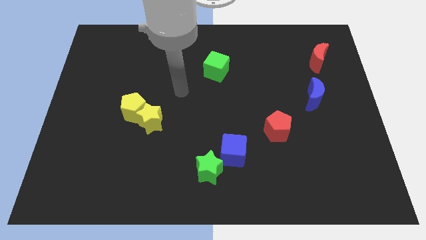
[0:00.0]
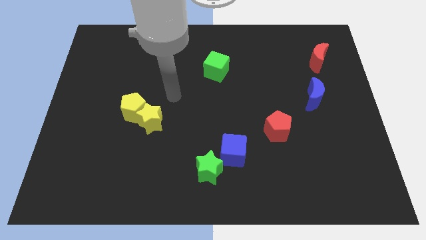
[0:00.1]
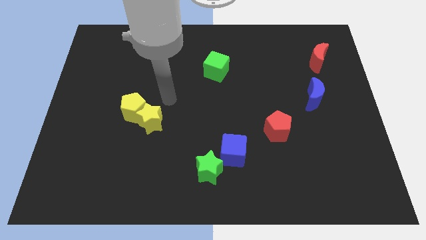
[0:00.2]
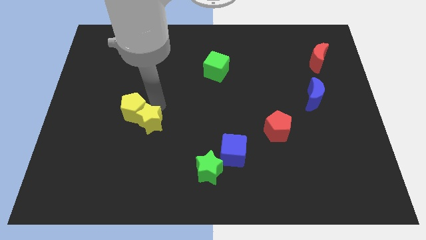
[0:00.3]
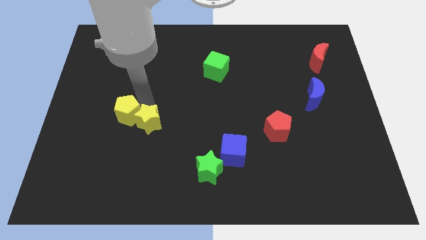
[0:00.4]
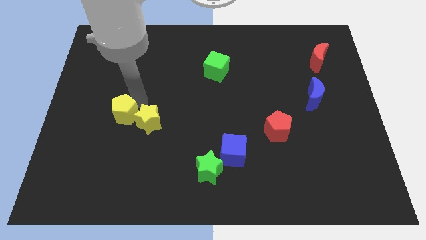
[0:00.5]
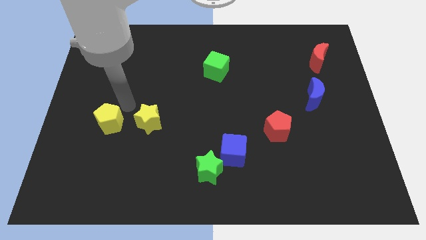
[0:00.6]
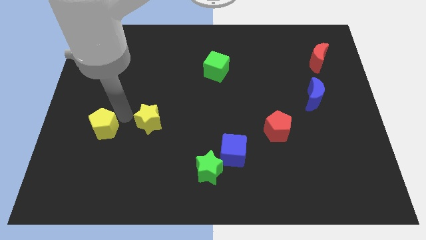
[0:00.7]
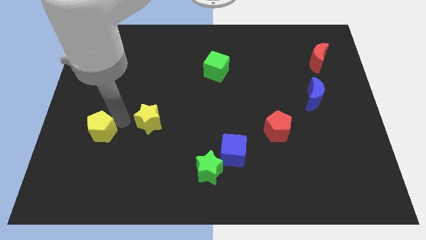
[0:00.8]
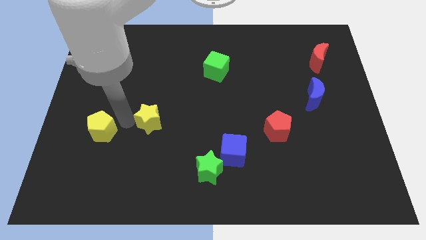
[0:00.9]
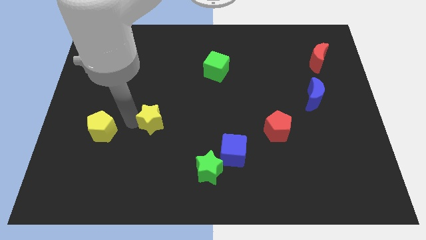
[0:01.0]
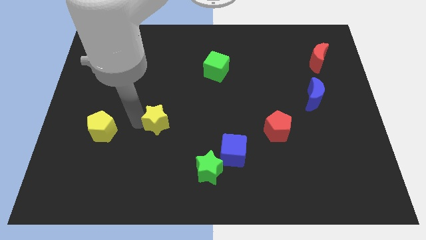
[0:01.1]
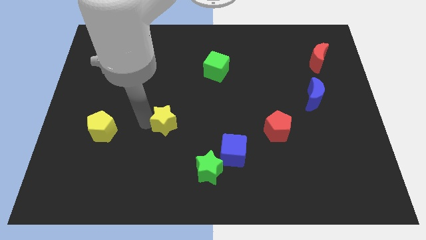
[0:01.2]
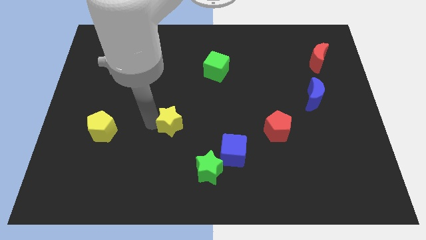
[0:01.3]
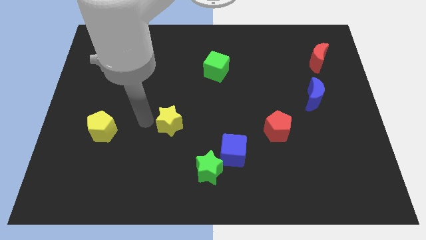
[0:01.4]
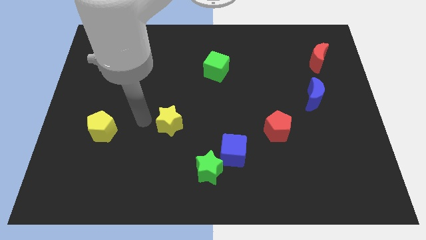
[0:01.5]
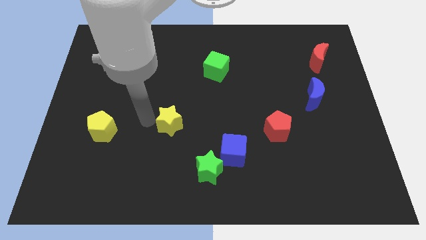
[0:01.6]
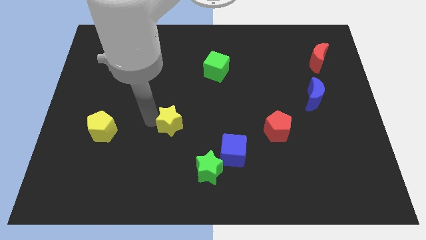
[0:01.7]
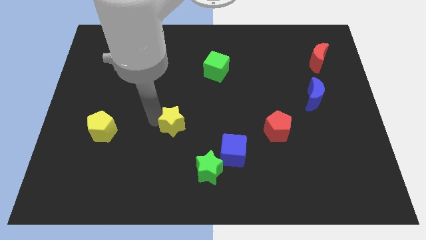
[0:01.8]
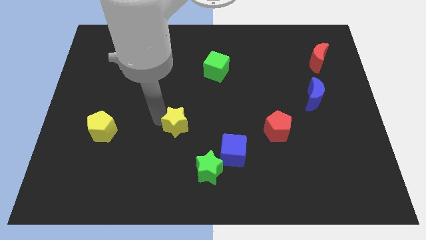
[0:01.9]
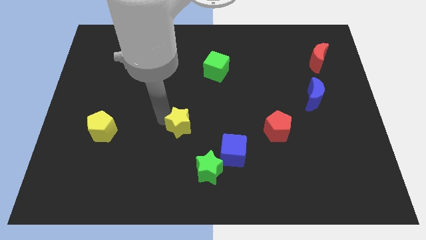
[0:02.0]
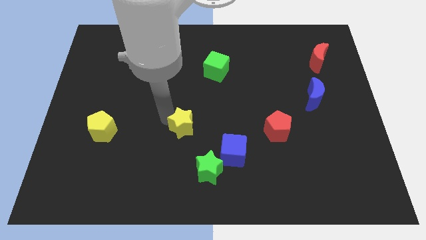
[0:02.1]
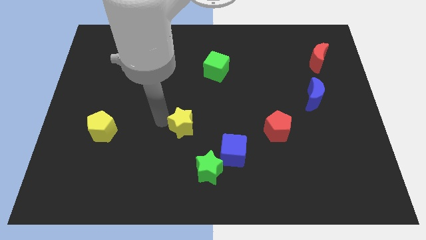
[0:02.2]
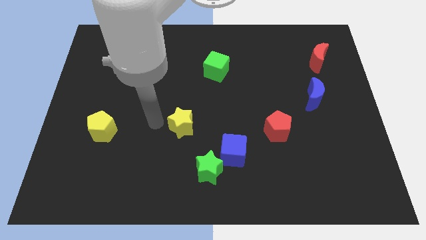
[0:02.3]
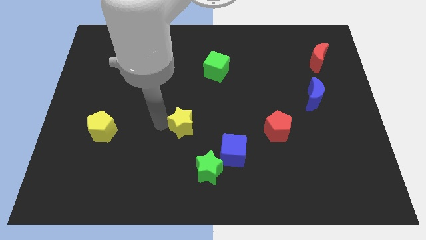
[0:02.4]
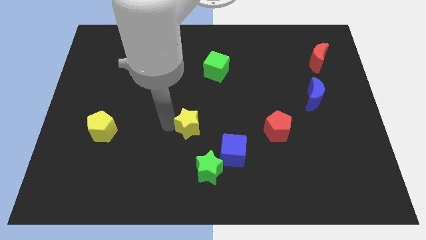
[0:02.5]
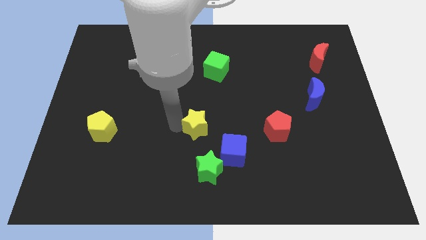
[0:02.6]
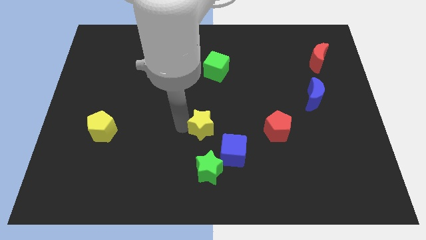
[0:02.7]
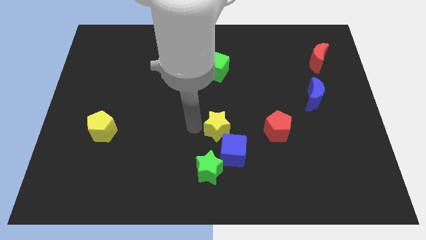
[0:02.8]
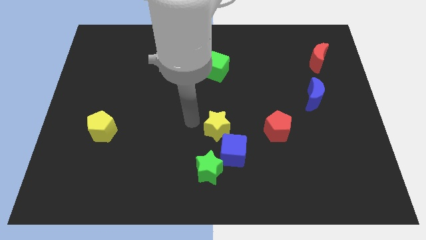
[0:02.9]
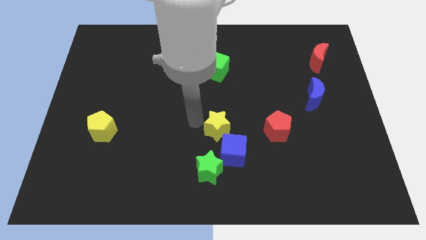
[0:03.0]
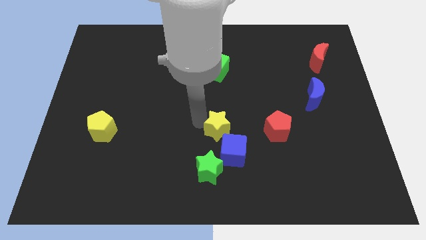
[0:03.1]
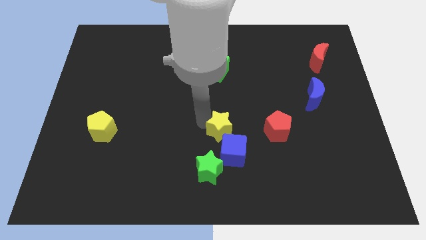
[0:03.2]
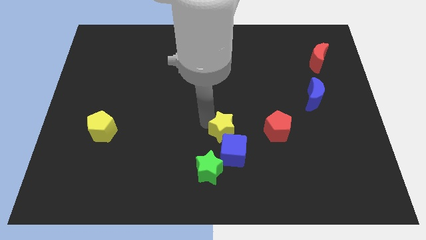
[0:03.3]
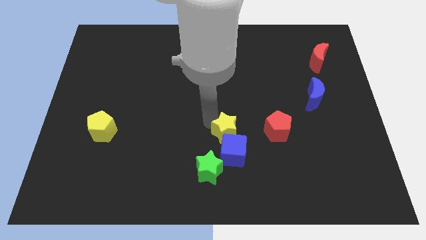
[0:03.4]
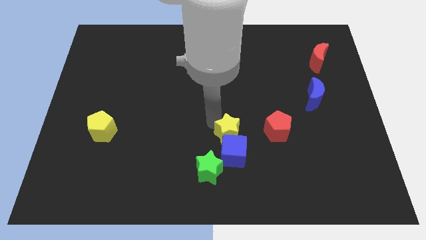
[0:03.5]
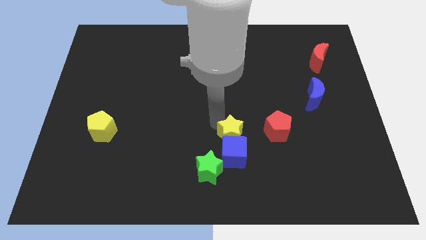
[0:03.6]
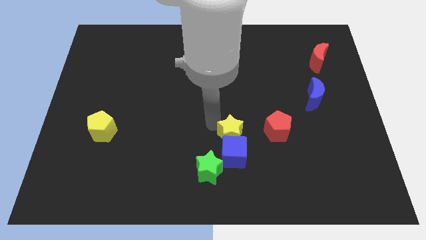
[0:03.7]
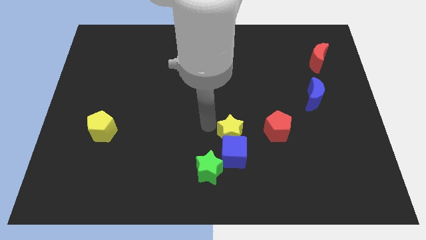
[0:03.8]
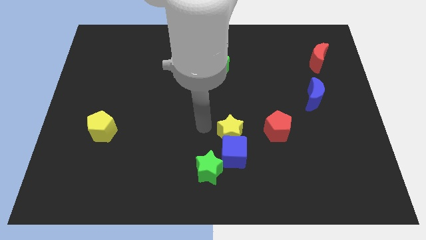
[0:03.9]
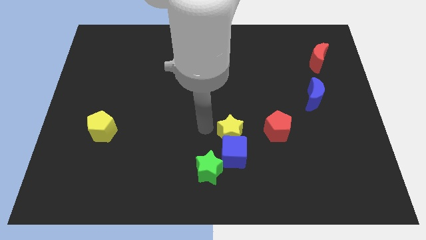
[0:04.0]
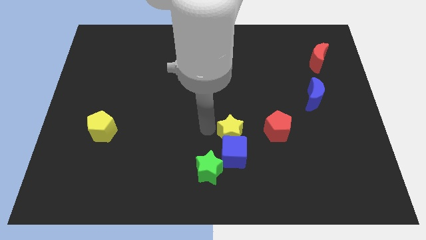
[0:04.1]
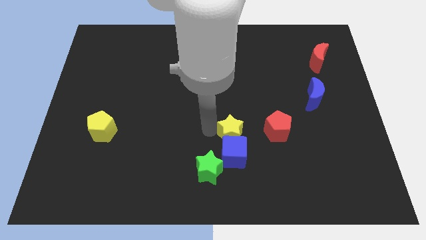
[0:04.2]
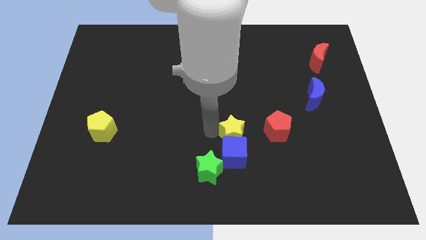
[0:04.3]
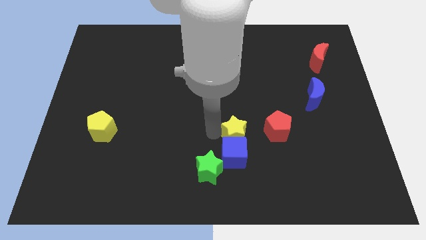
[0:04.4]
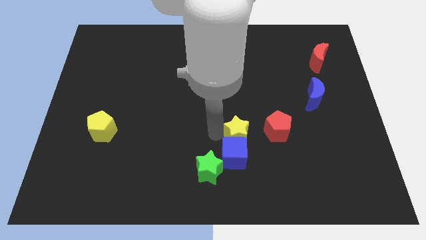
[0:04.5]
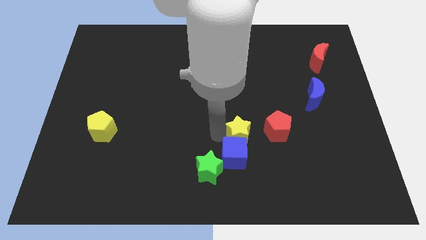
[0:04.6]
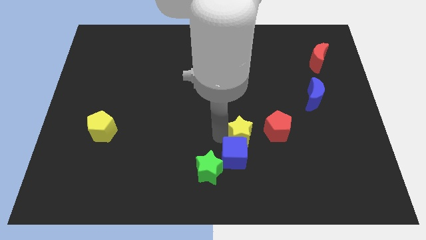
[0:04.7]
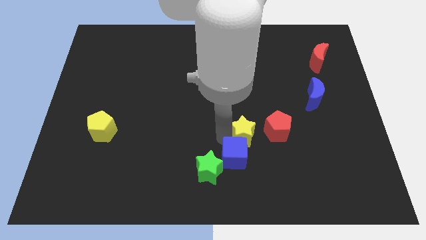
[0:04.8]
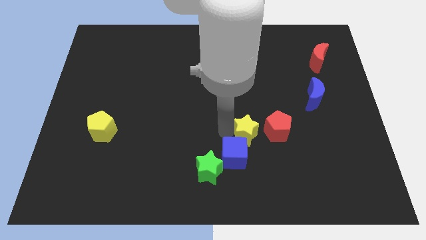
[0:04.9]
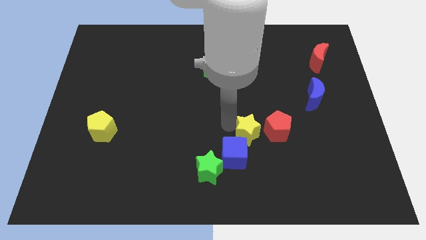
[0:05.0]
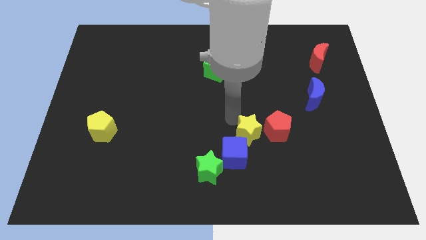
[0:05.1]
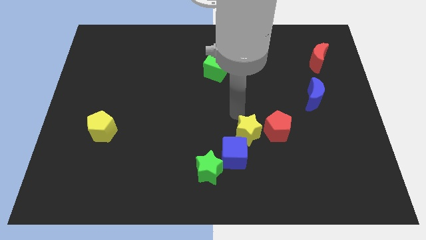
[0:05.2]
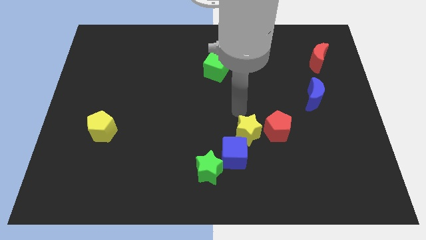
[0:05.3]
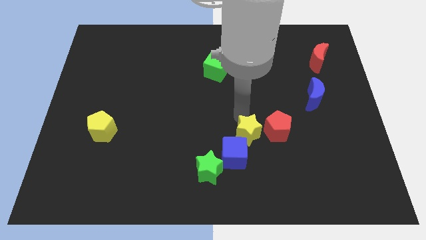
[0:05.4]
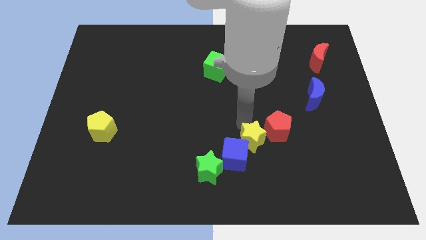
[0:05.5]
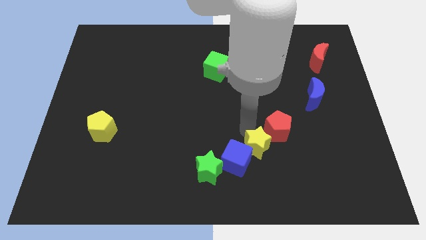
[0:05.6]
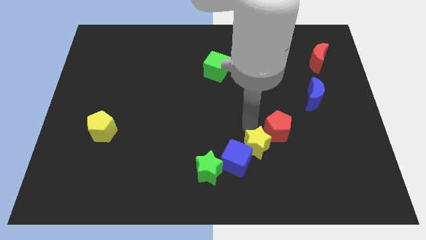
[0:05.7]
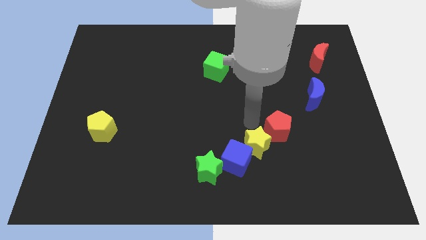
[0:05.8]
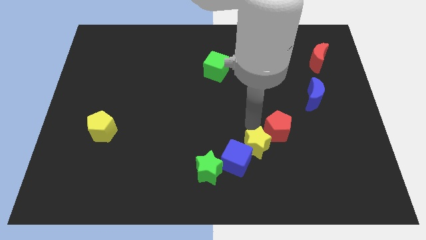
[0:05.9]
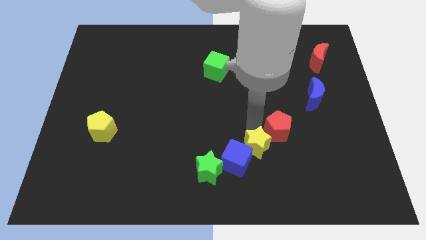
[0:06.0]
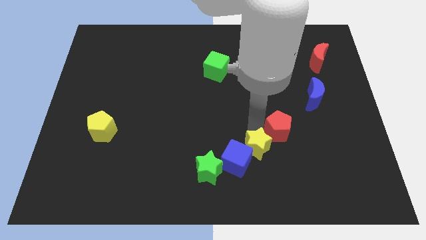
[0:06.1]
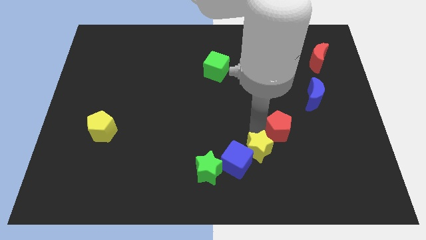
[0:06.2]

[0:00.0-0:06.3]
push the yellow star to the right of the green star
